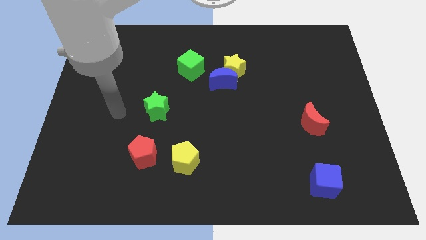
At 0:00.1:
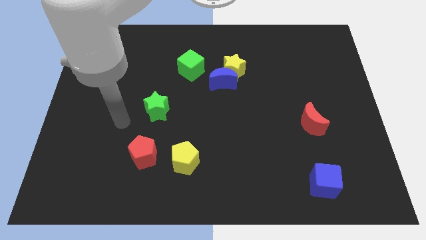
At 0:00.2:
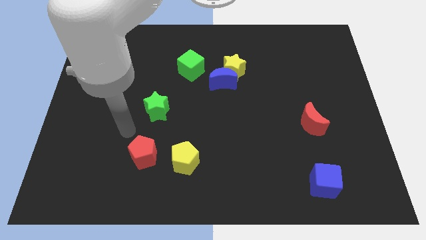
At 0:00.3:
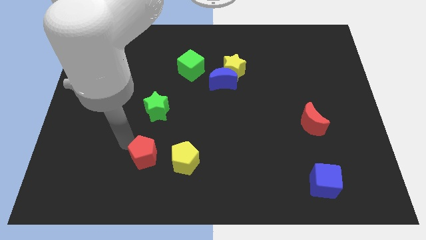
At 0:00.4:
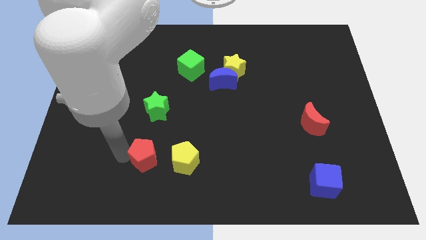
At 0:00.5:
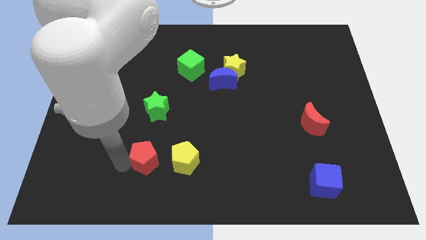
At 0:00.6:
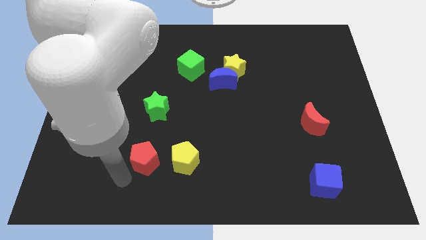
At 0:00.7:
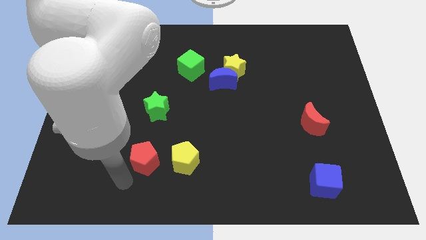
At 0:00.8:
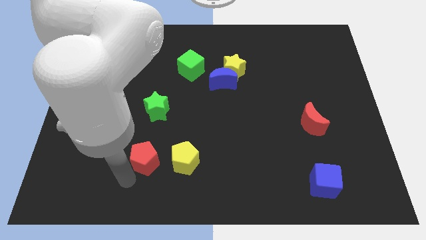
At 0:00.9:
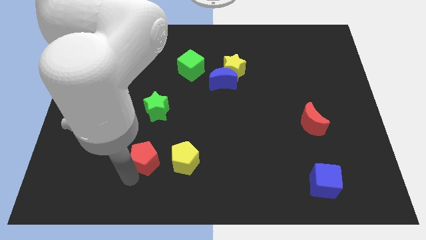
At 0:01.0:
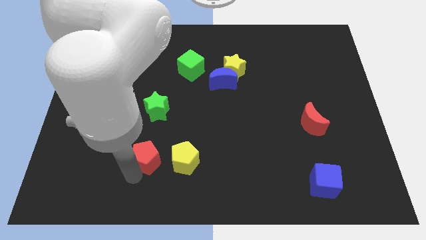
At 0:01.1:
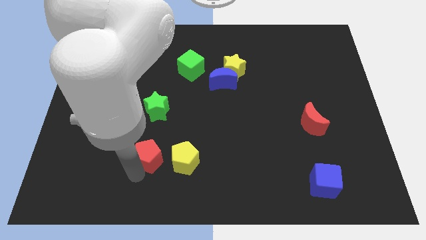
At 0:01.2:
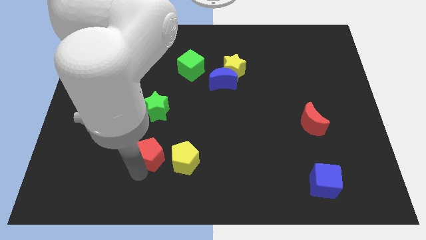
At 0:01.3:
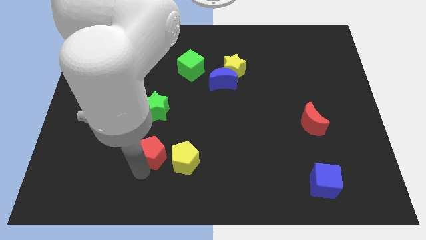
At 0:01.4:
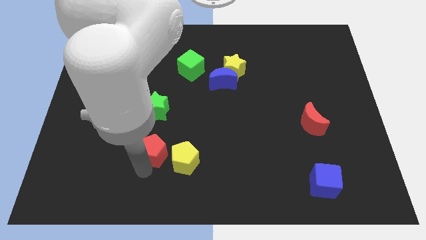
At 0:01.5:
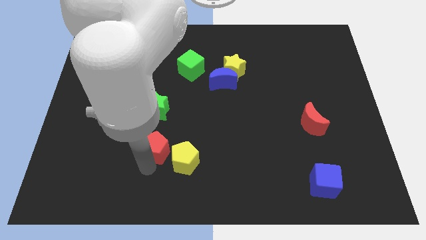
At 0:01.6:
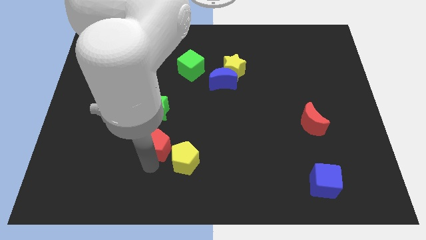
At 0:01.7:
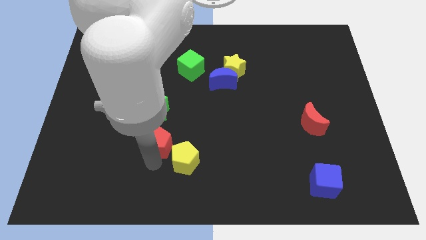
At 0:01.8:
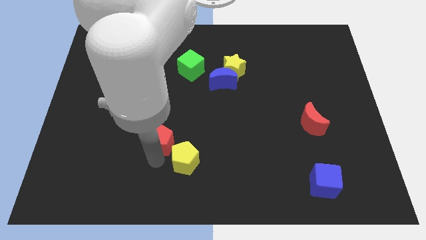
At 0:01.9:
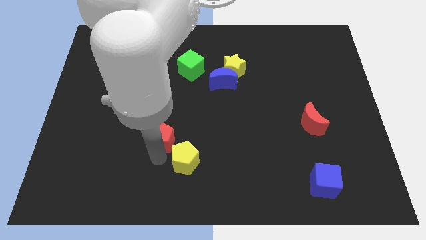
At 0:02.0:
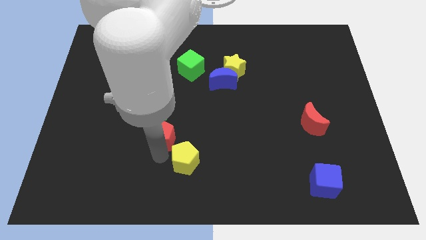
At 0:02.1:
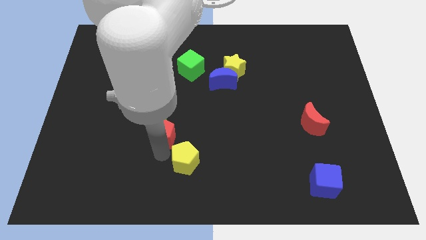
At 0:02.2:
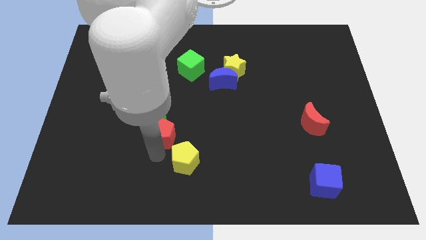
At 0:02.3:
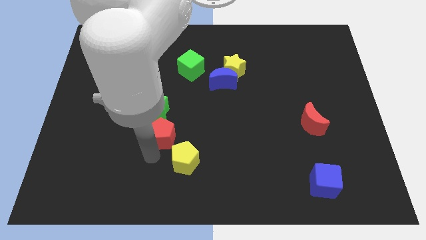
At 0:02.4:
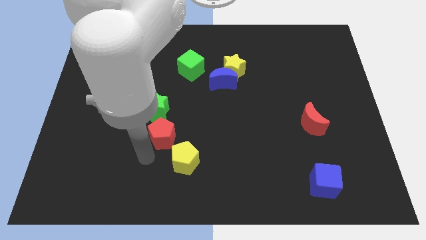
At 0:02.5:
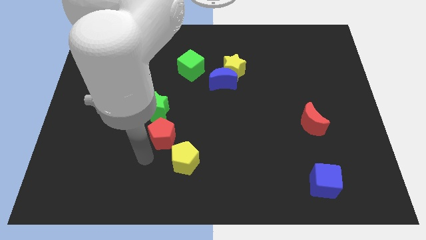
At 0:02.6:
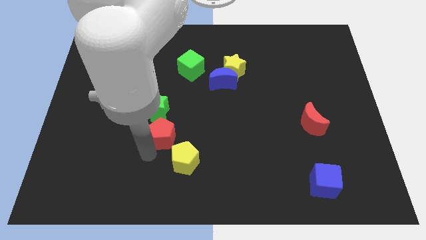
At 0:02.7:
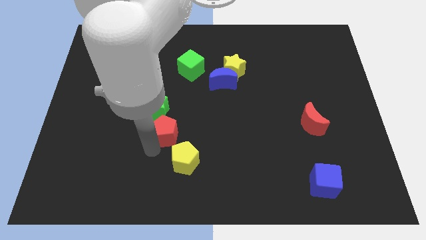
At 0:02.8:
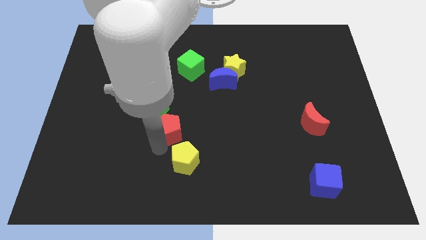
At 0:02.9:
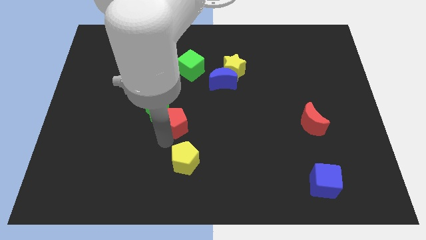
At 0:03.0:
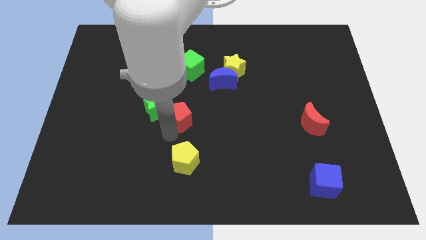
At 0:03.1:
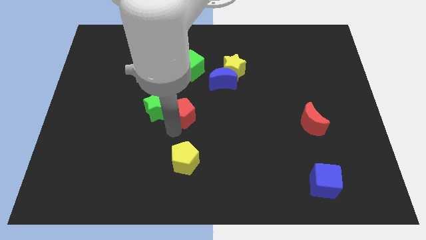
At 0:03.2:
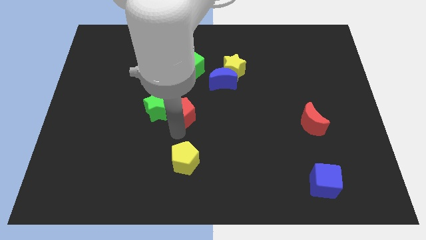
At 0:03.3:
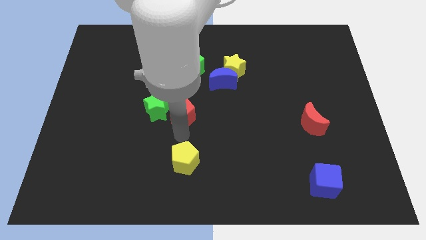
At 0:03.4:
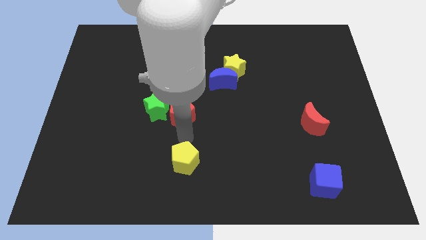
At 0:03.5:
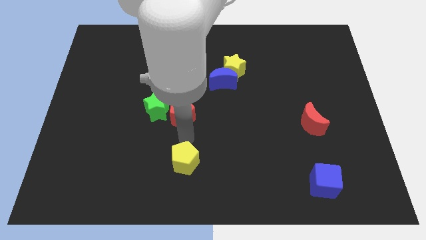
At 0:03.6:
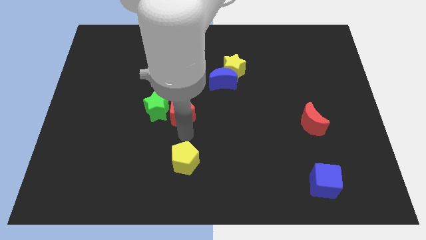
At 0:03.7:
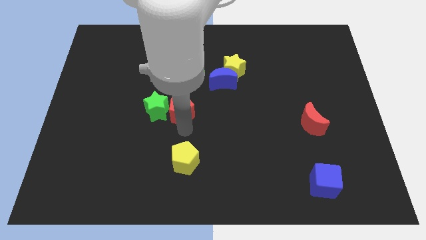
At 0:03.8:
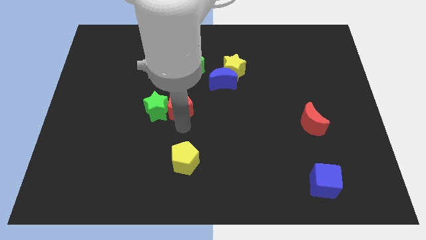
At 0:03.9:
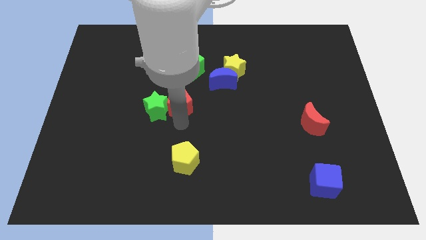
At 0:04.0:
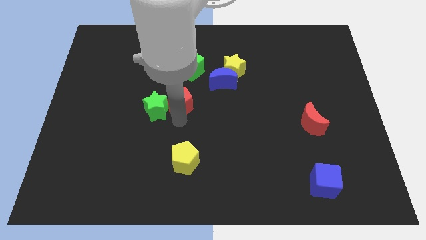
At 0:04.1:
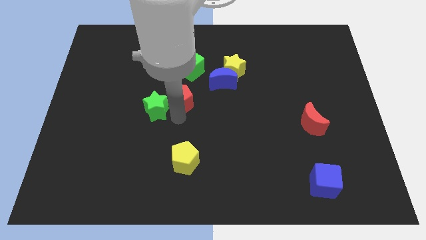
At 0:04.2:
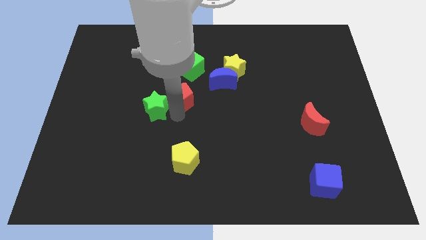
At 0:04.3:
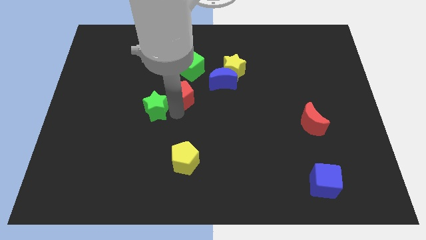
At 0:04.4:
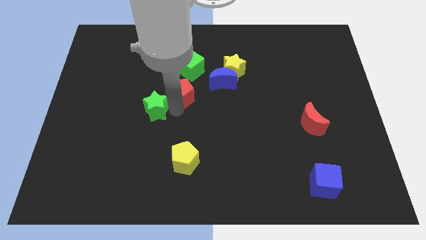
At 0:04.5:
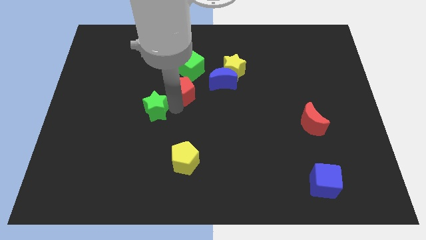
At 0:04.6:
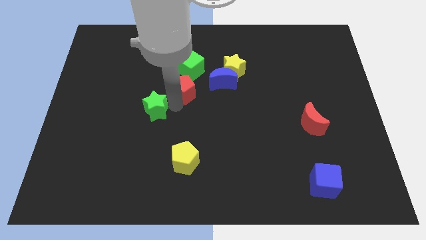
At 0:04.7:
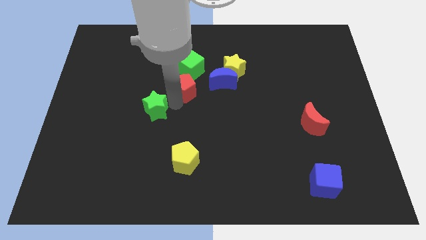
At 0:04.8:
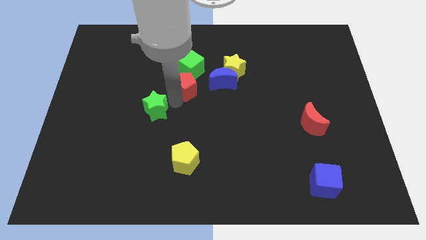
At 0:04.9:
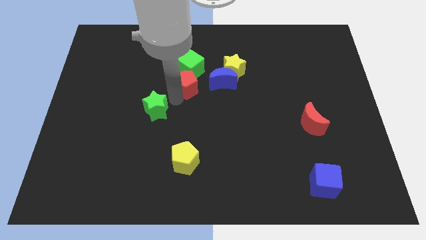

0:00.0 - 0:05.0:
put the red pentagon towards the green cube

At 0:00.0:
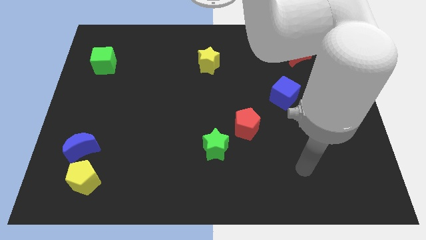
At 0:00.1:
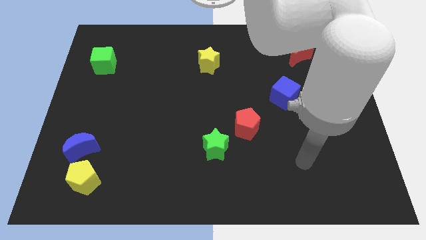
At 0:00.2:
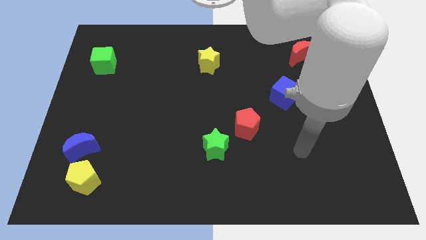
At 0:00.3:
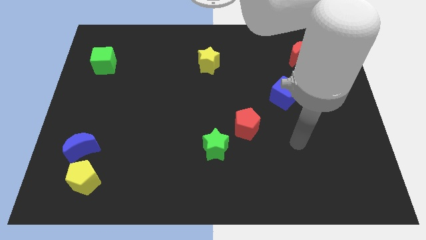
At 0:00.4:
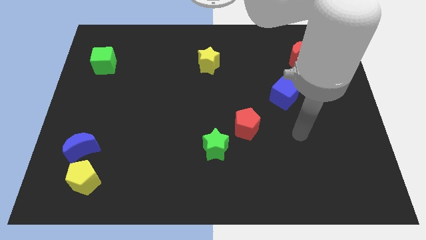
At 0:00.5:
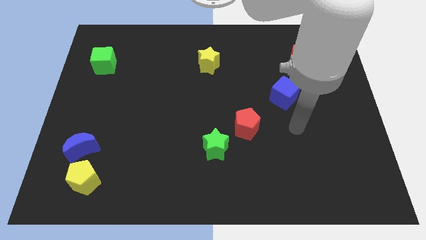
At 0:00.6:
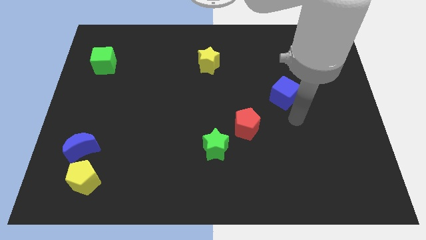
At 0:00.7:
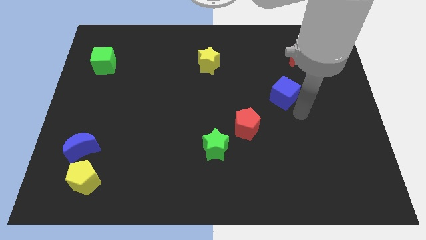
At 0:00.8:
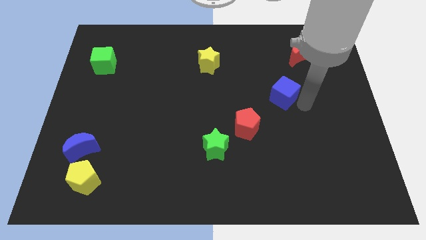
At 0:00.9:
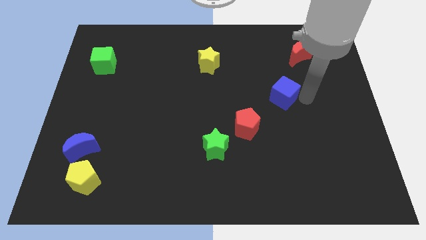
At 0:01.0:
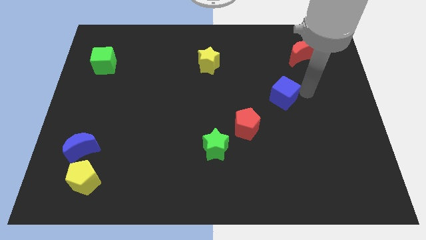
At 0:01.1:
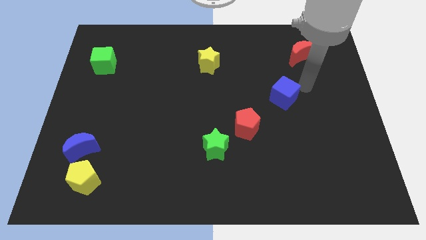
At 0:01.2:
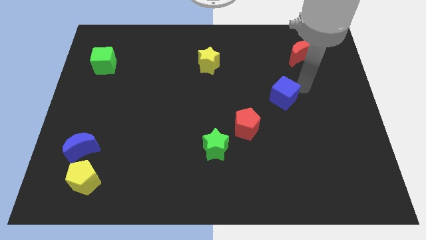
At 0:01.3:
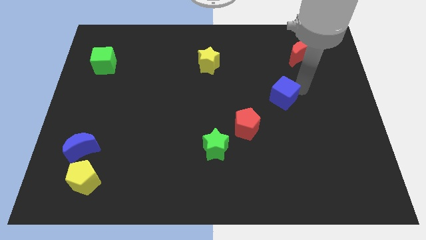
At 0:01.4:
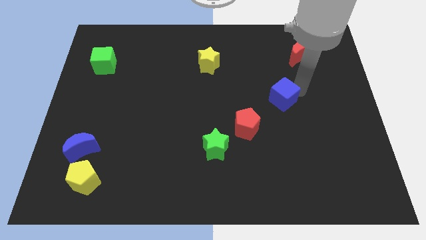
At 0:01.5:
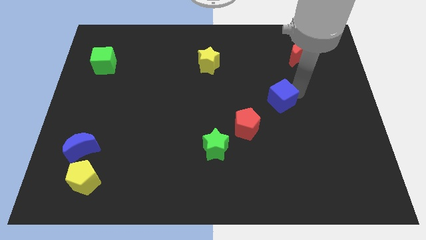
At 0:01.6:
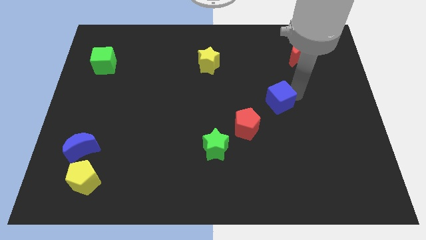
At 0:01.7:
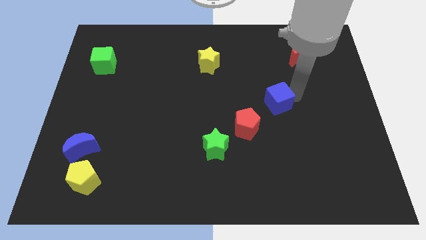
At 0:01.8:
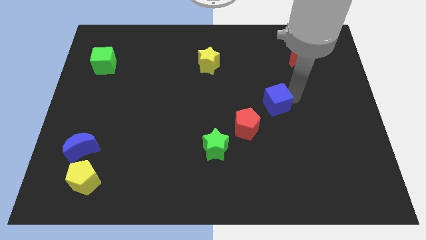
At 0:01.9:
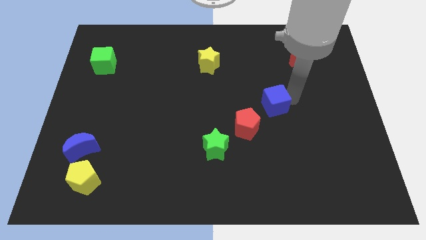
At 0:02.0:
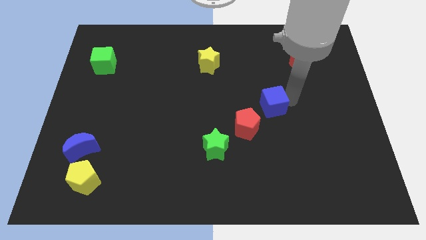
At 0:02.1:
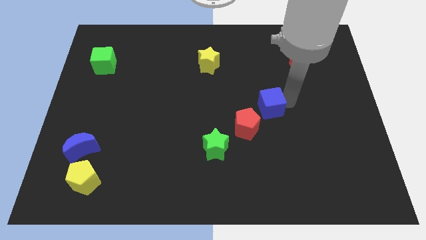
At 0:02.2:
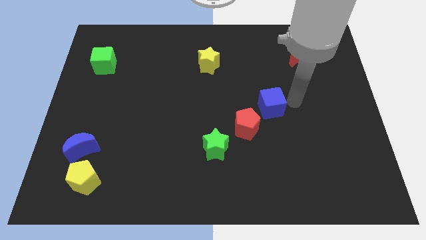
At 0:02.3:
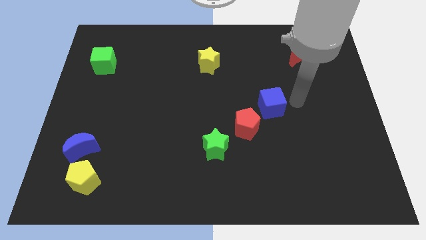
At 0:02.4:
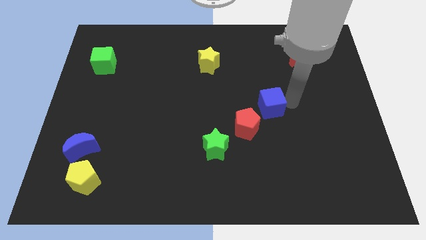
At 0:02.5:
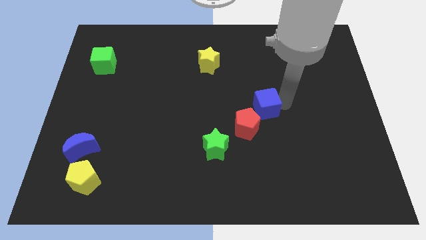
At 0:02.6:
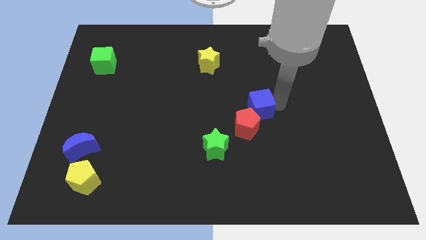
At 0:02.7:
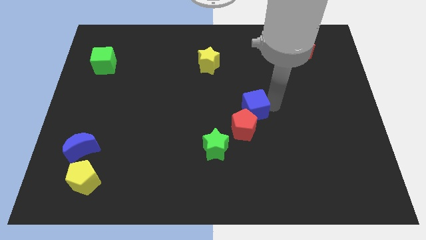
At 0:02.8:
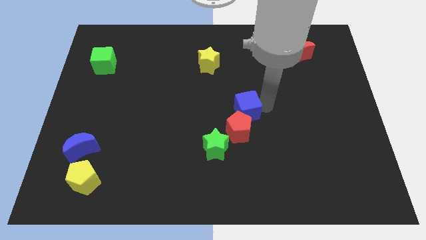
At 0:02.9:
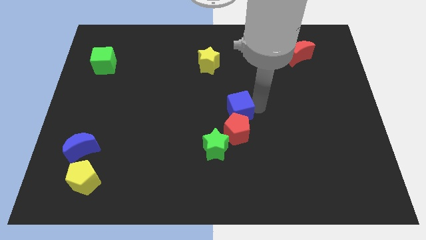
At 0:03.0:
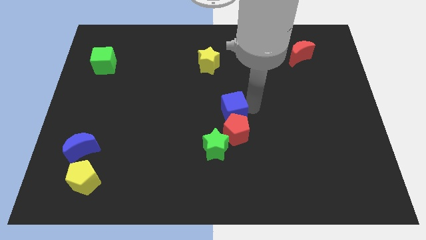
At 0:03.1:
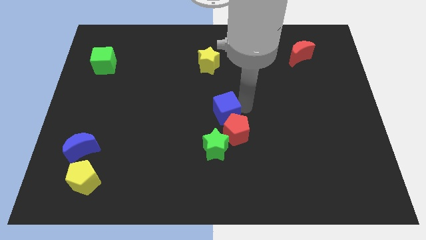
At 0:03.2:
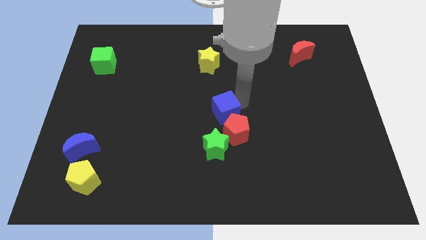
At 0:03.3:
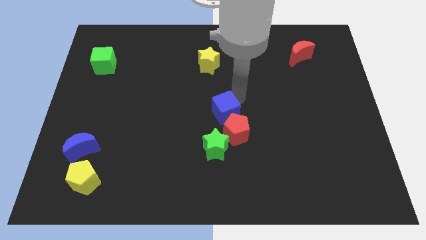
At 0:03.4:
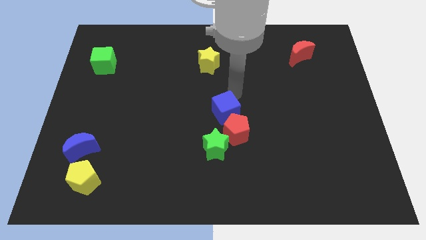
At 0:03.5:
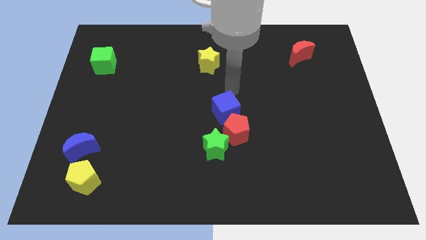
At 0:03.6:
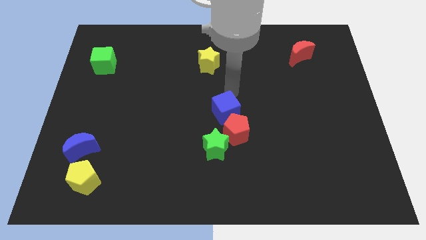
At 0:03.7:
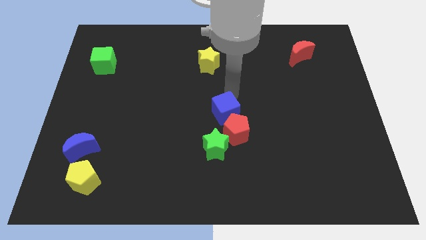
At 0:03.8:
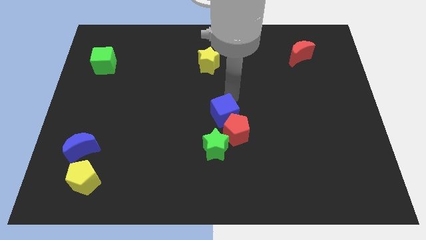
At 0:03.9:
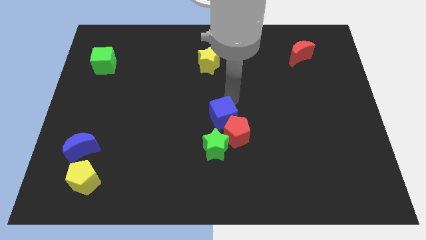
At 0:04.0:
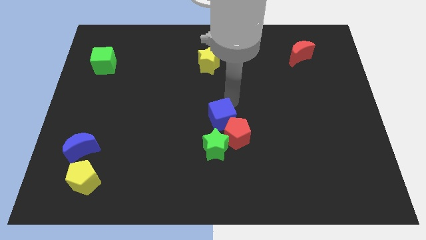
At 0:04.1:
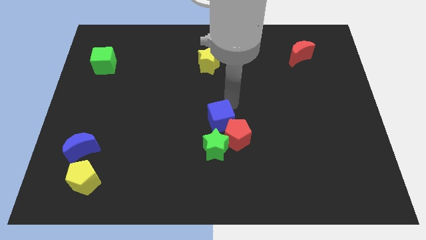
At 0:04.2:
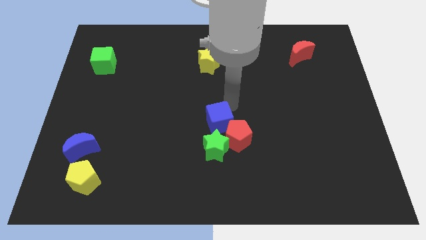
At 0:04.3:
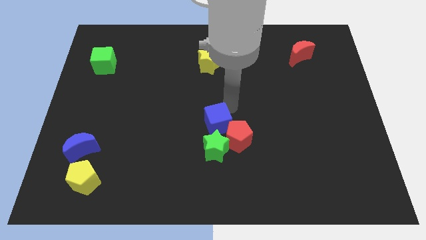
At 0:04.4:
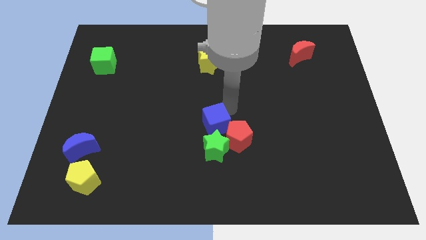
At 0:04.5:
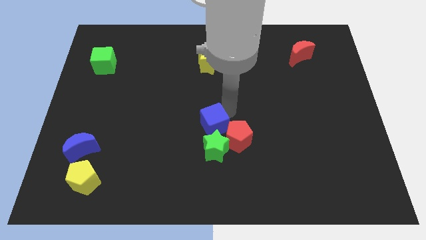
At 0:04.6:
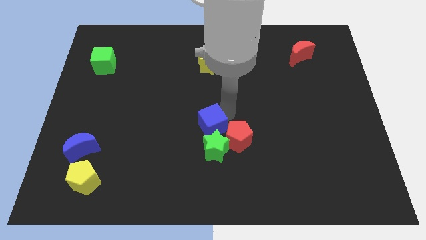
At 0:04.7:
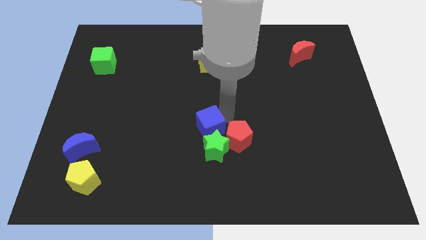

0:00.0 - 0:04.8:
push the blue cube towards the green star
